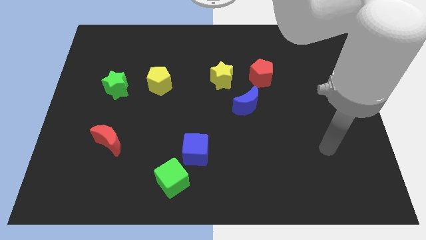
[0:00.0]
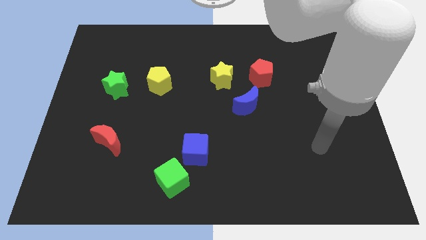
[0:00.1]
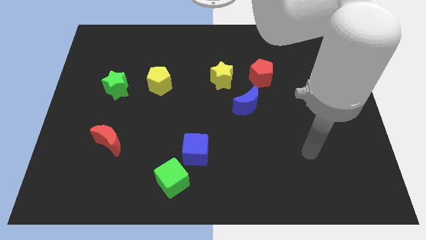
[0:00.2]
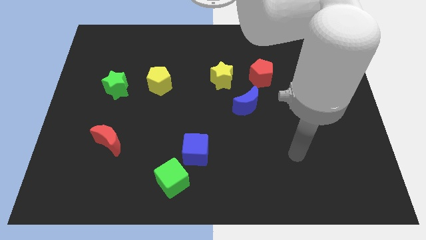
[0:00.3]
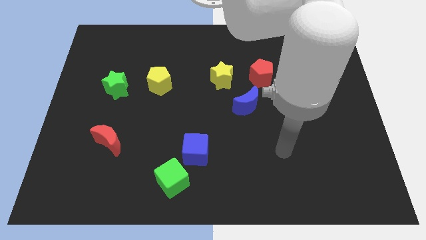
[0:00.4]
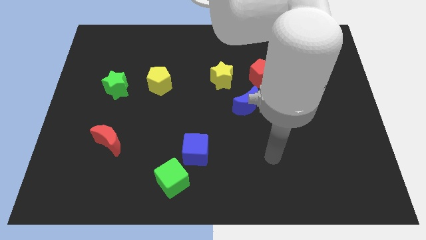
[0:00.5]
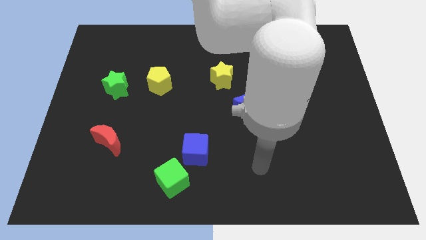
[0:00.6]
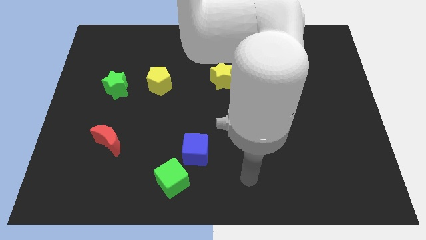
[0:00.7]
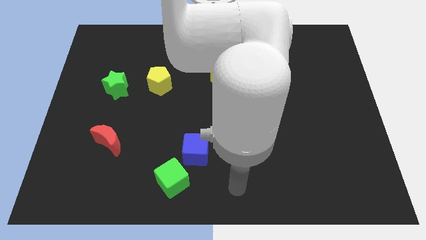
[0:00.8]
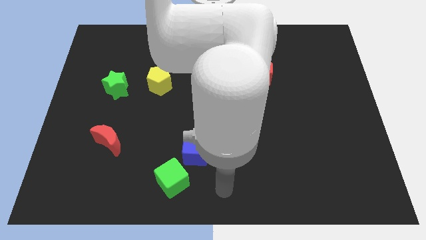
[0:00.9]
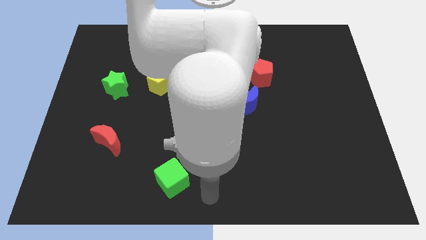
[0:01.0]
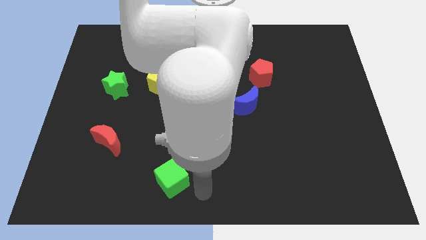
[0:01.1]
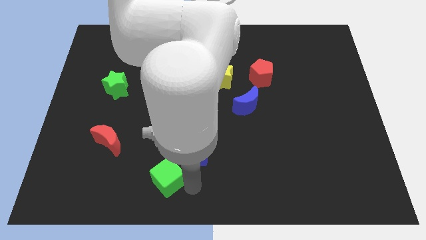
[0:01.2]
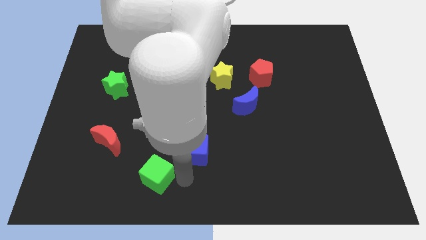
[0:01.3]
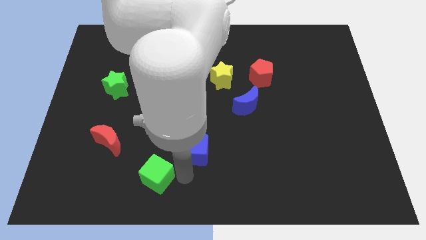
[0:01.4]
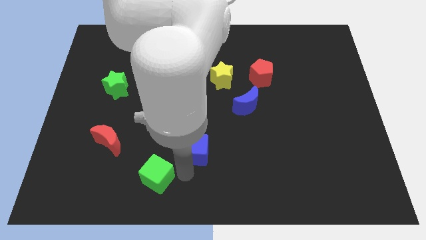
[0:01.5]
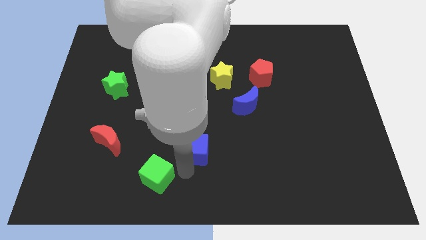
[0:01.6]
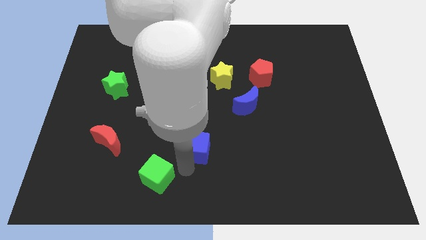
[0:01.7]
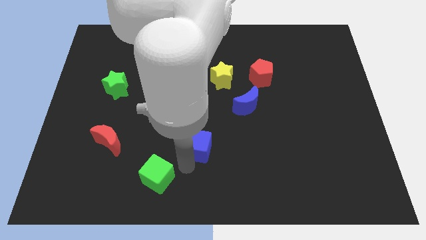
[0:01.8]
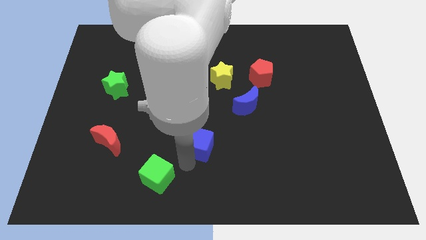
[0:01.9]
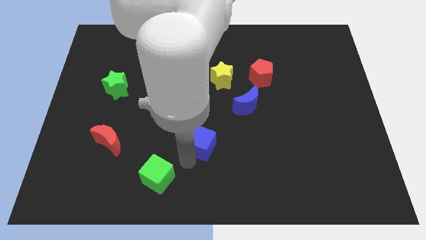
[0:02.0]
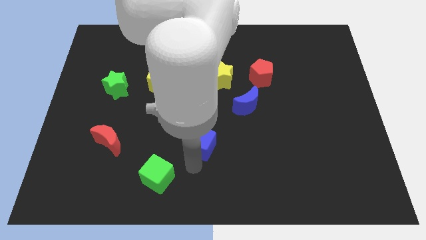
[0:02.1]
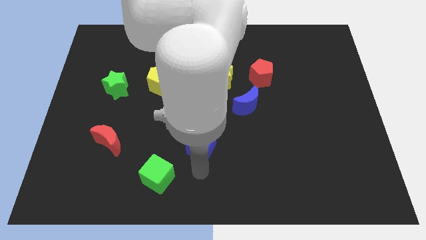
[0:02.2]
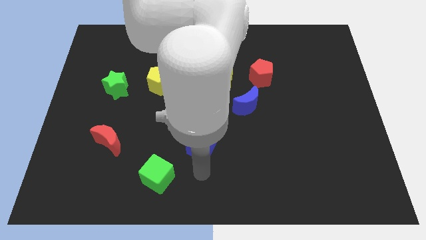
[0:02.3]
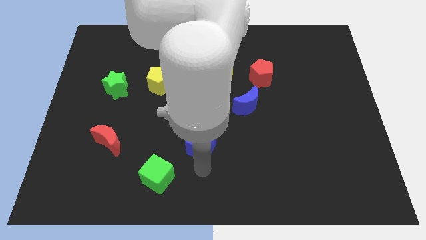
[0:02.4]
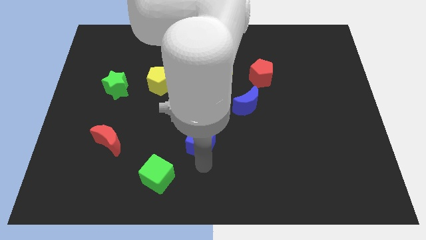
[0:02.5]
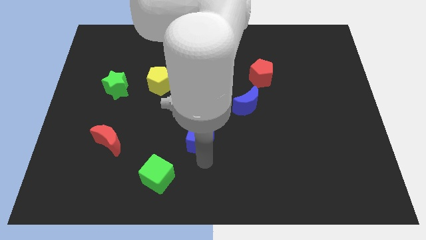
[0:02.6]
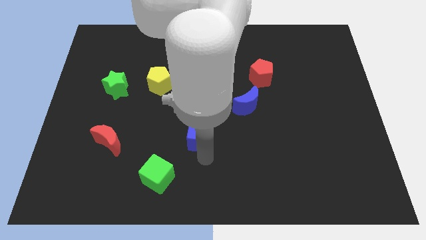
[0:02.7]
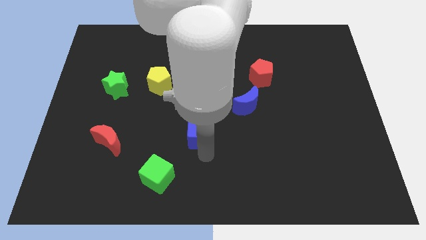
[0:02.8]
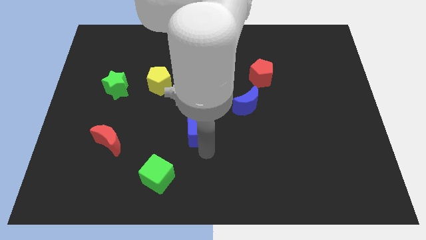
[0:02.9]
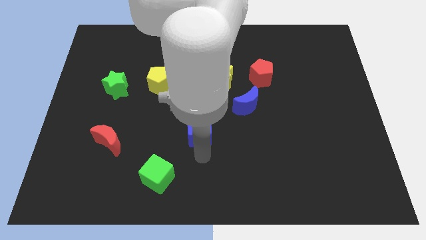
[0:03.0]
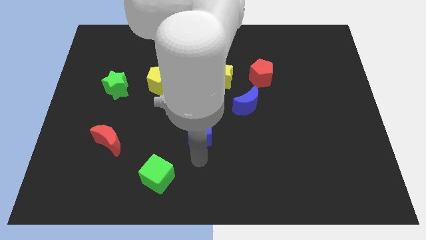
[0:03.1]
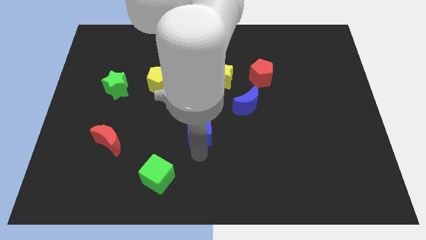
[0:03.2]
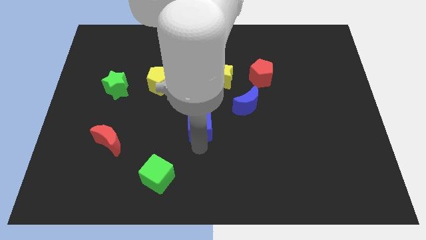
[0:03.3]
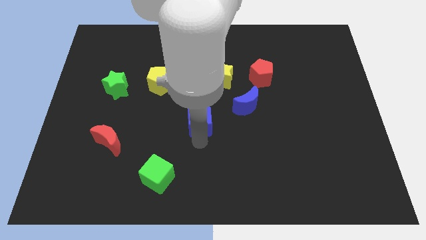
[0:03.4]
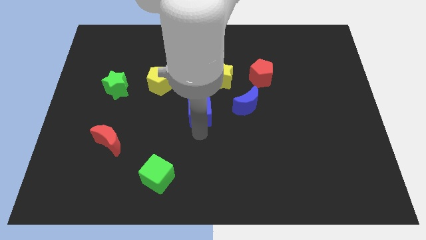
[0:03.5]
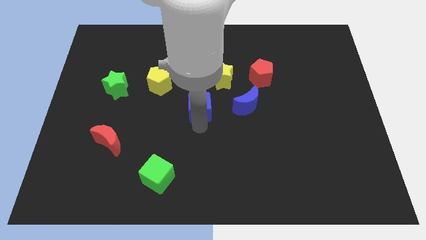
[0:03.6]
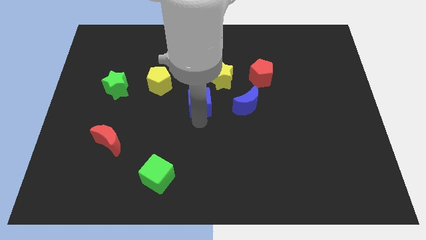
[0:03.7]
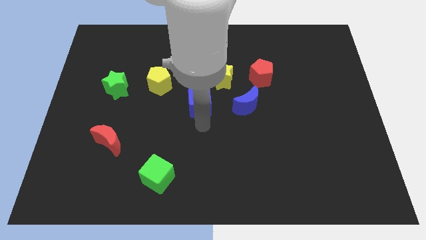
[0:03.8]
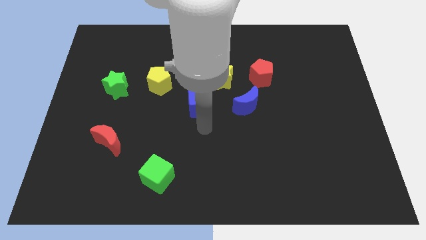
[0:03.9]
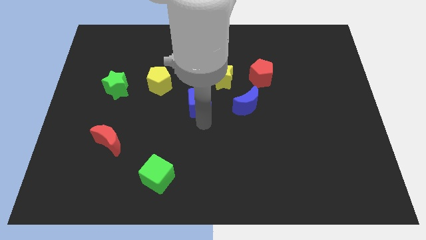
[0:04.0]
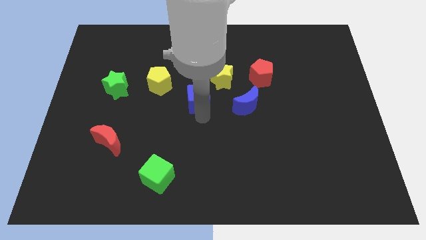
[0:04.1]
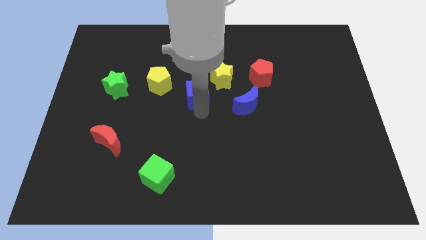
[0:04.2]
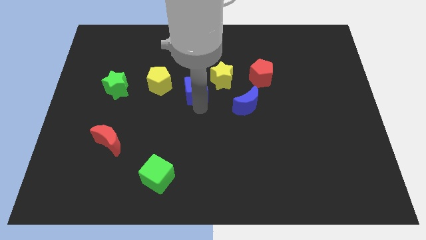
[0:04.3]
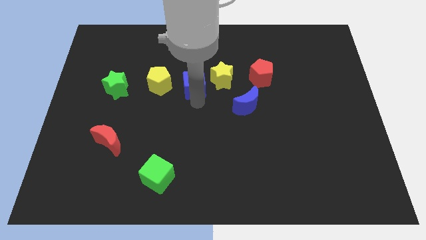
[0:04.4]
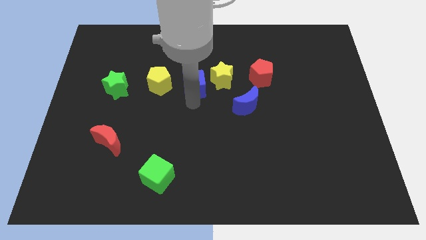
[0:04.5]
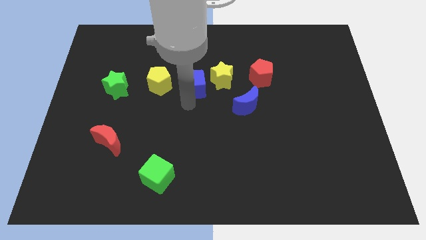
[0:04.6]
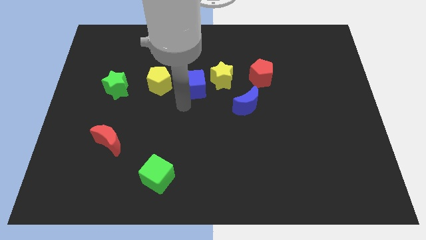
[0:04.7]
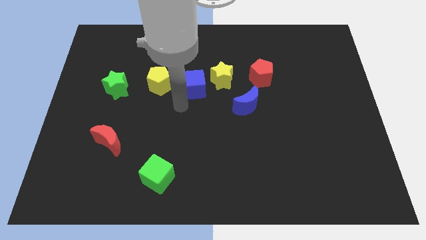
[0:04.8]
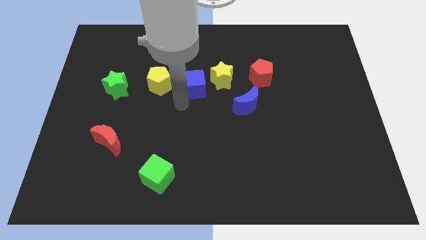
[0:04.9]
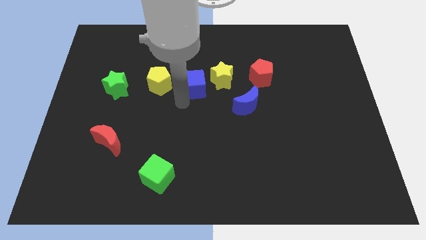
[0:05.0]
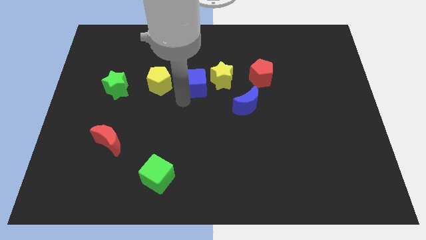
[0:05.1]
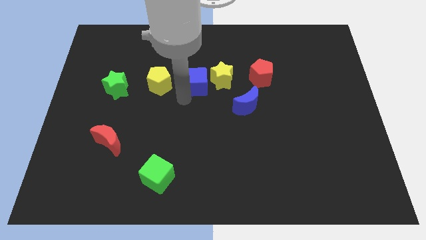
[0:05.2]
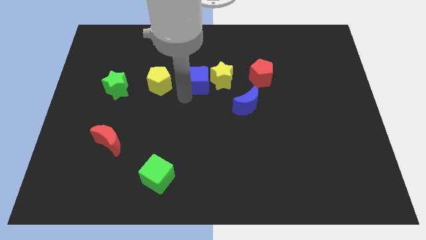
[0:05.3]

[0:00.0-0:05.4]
move the blue cube left of the red pentagon

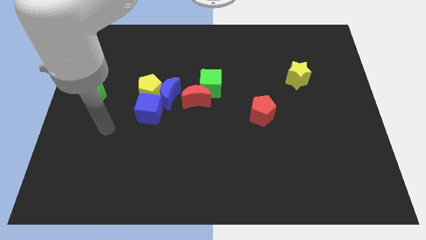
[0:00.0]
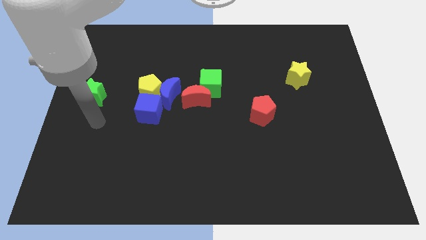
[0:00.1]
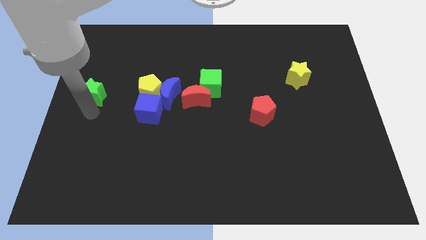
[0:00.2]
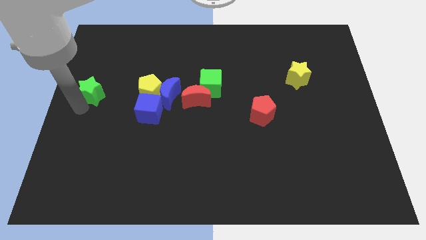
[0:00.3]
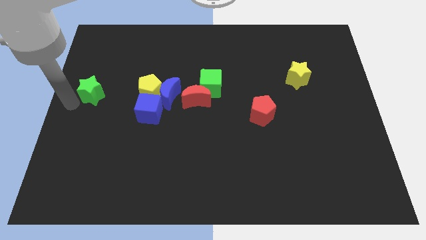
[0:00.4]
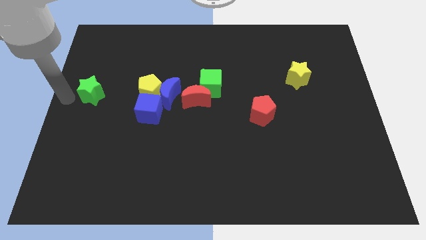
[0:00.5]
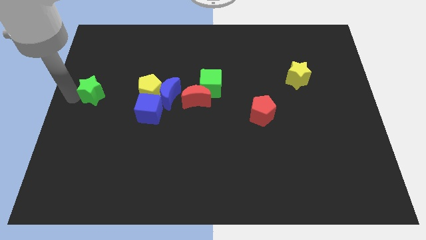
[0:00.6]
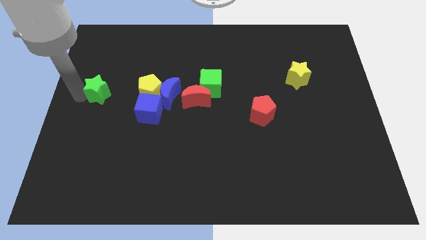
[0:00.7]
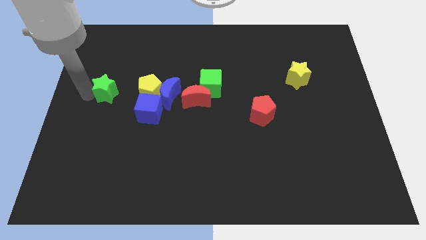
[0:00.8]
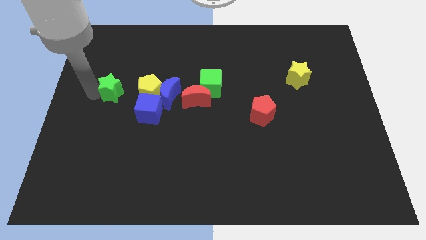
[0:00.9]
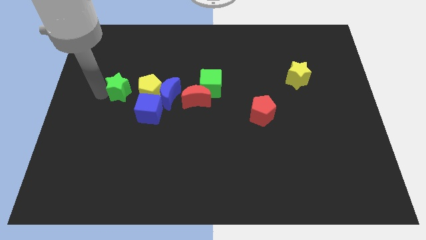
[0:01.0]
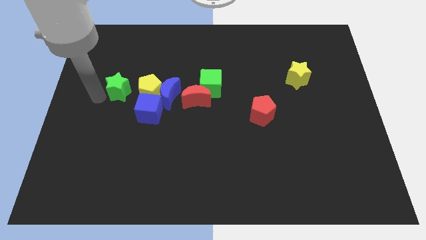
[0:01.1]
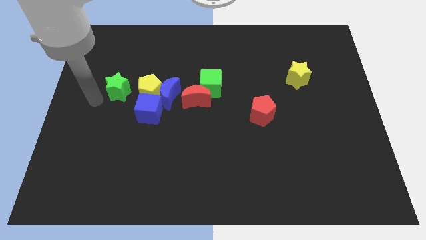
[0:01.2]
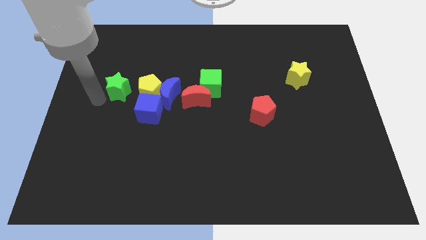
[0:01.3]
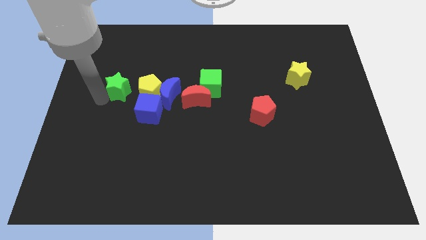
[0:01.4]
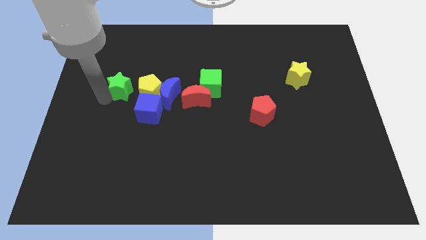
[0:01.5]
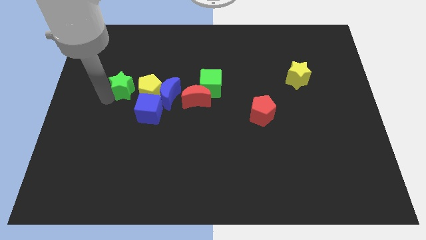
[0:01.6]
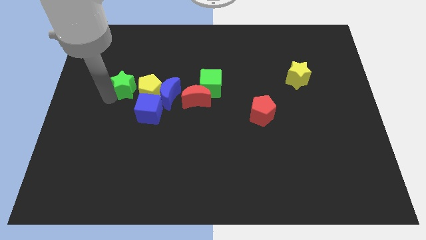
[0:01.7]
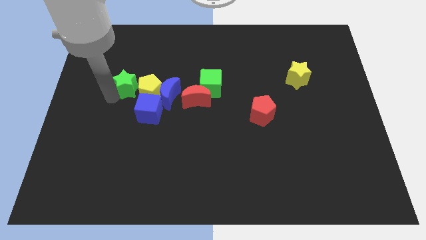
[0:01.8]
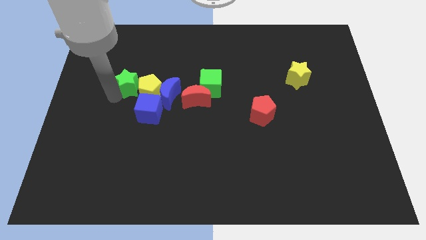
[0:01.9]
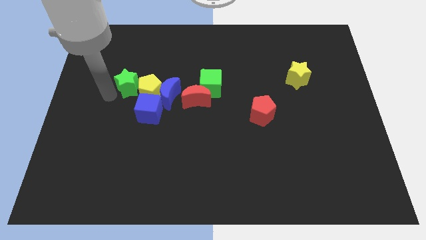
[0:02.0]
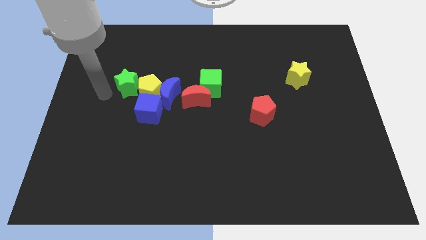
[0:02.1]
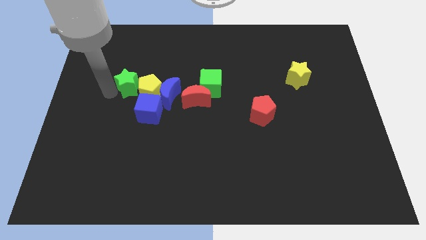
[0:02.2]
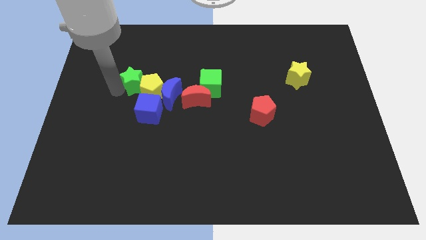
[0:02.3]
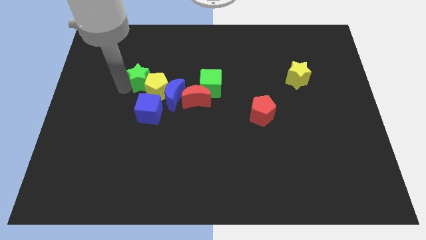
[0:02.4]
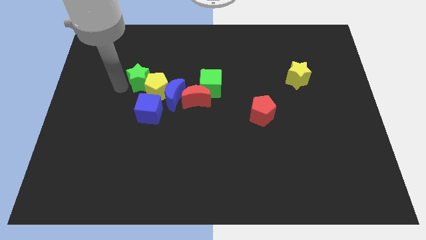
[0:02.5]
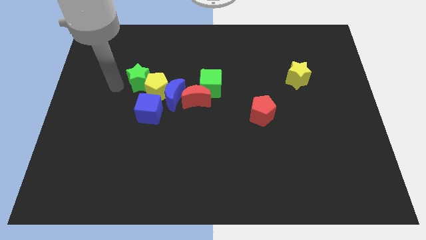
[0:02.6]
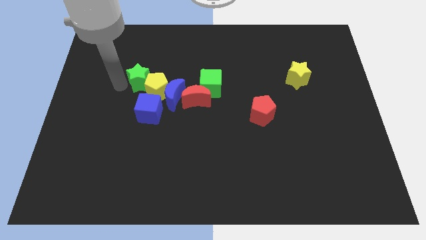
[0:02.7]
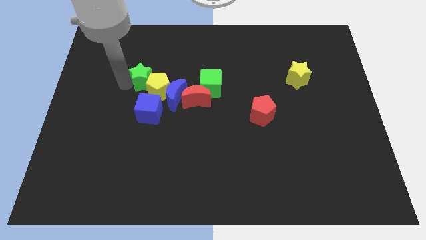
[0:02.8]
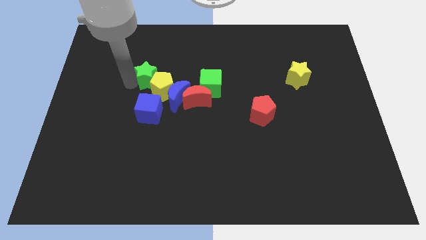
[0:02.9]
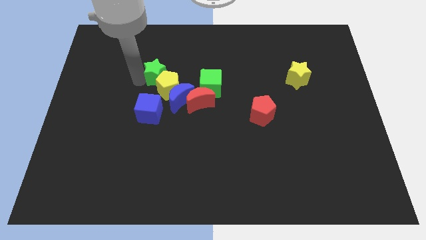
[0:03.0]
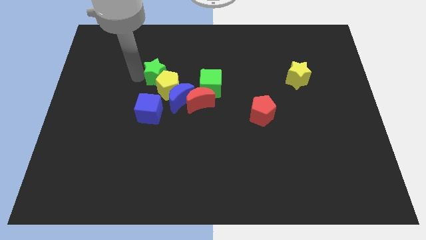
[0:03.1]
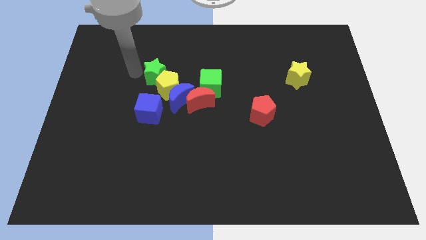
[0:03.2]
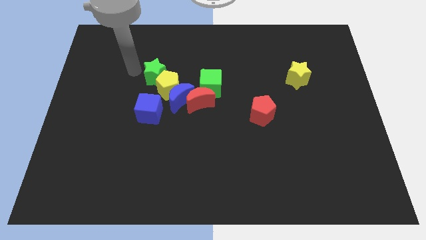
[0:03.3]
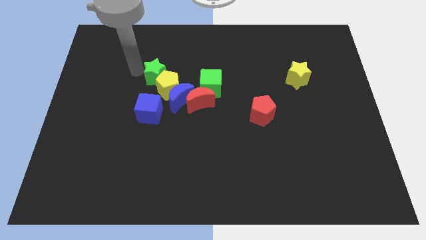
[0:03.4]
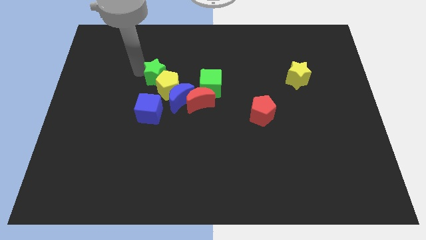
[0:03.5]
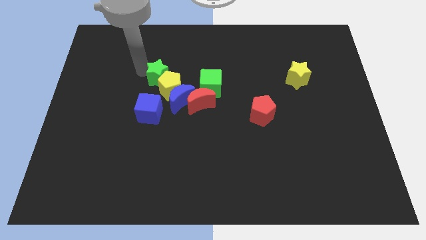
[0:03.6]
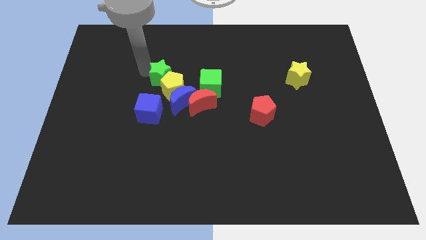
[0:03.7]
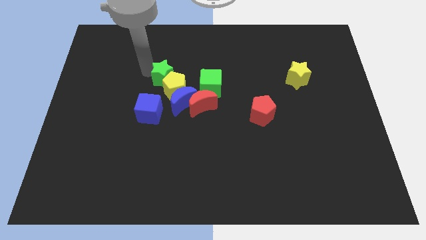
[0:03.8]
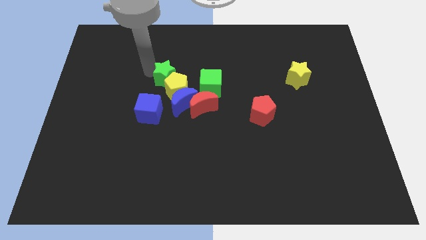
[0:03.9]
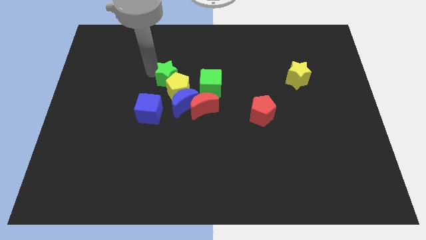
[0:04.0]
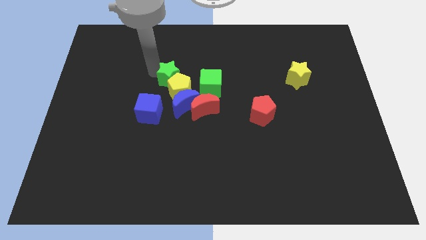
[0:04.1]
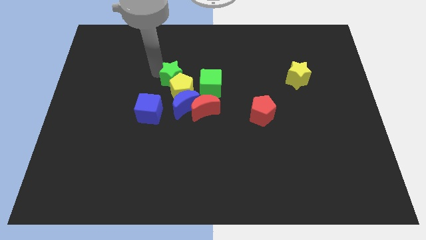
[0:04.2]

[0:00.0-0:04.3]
put the green star to the top right side of the blue cube
